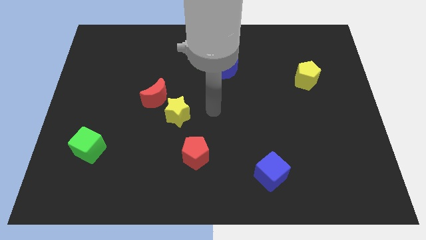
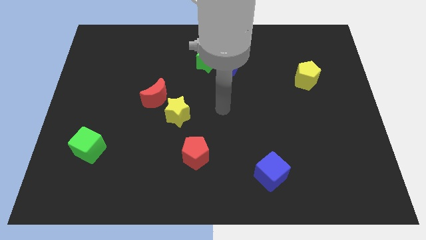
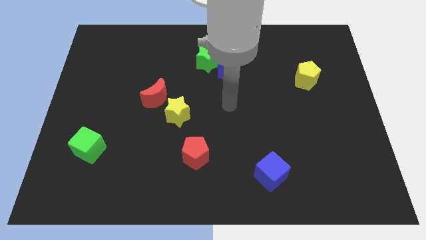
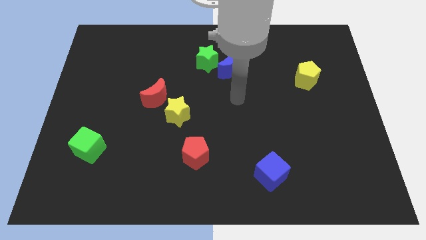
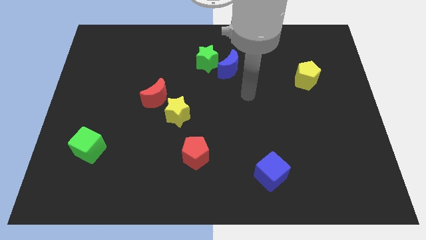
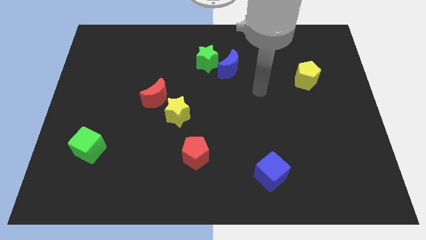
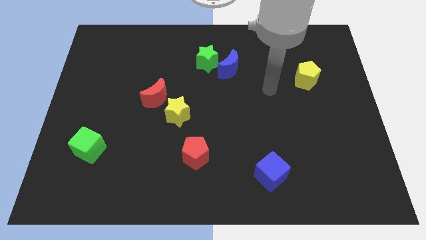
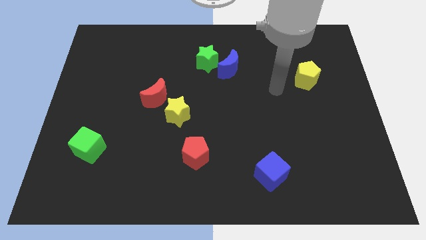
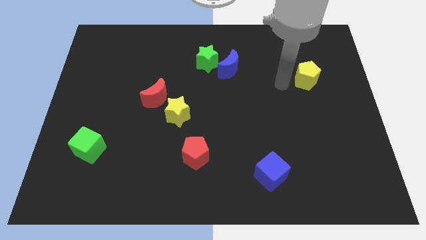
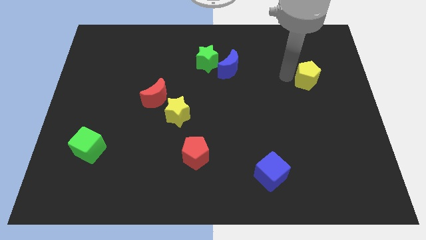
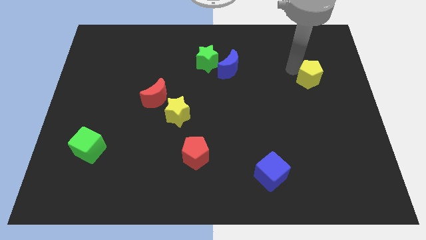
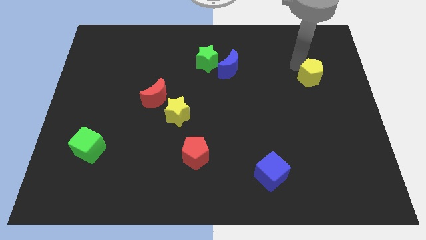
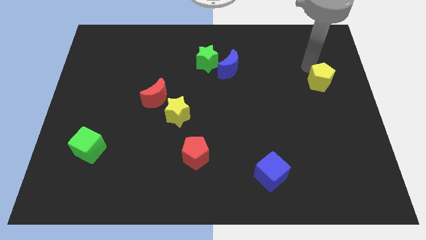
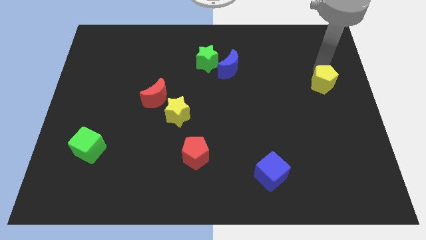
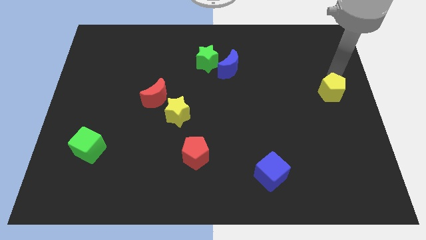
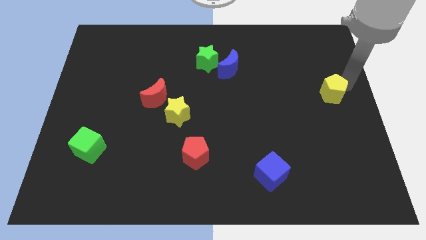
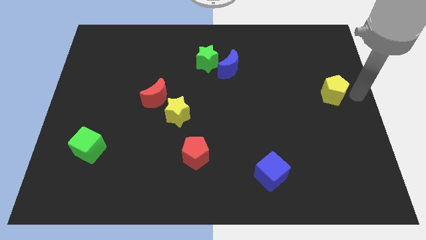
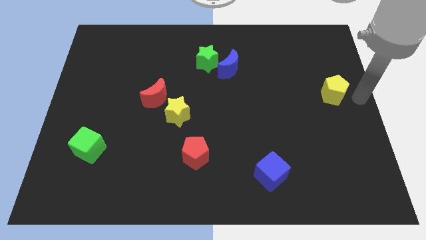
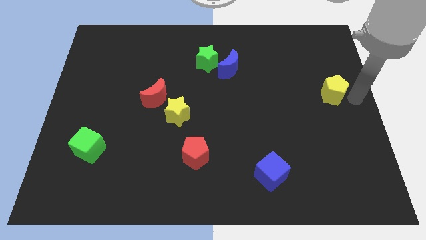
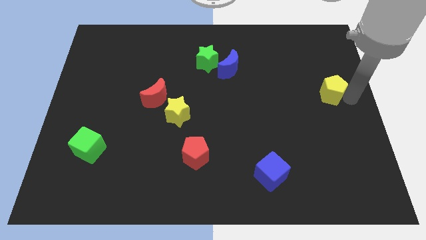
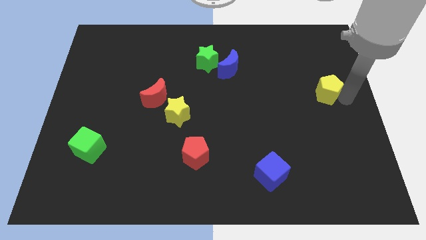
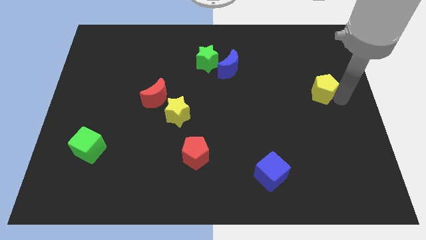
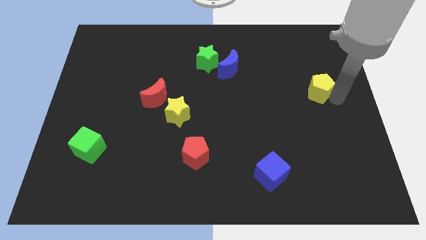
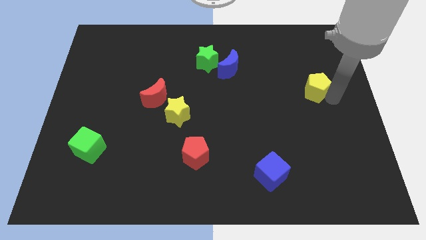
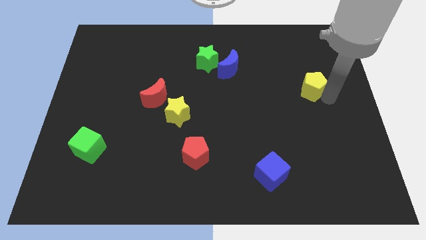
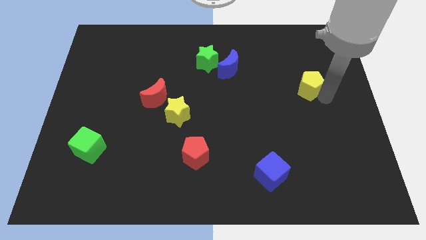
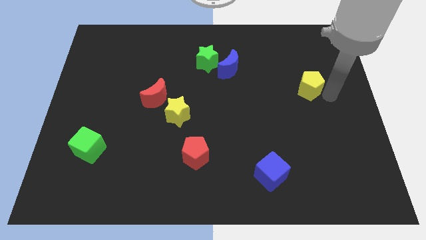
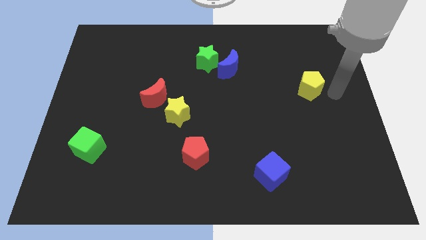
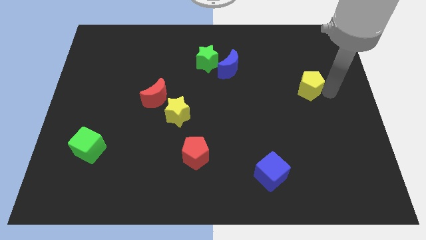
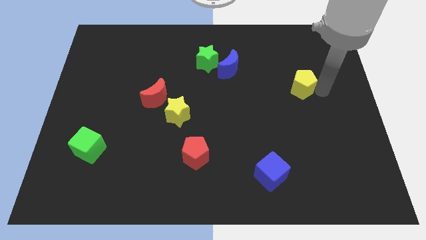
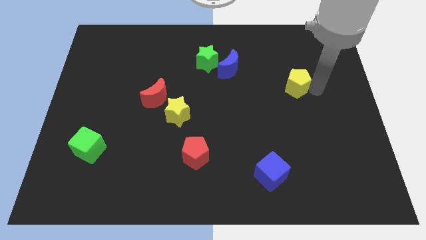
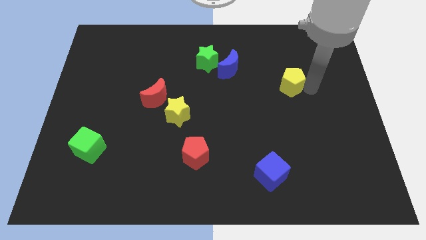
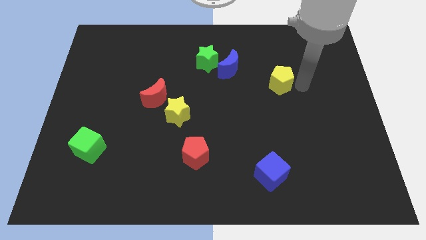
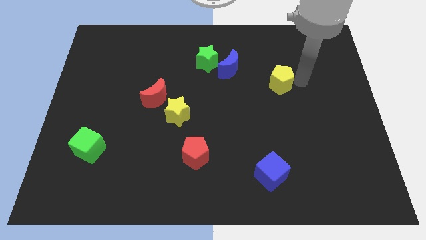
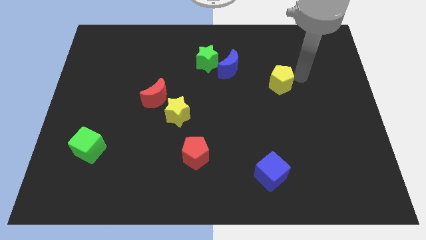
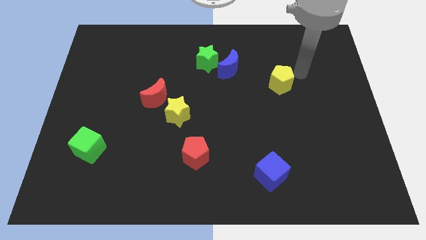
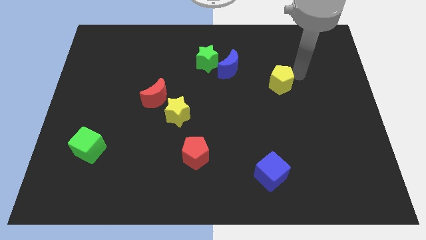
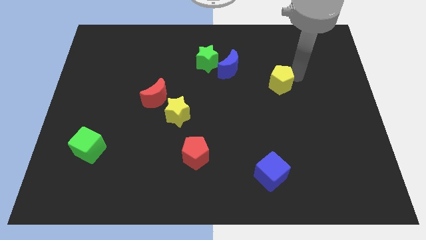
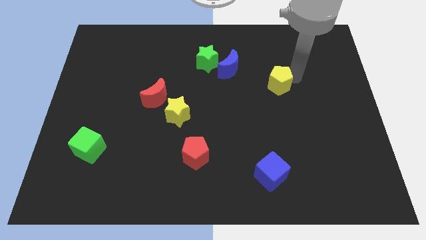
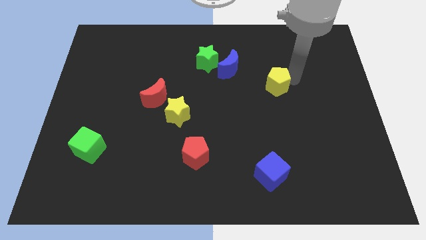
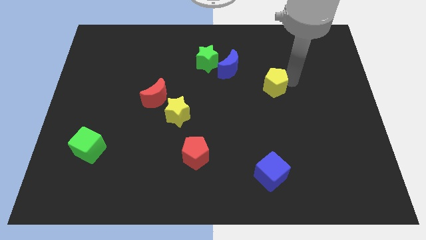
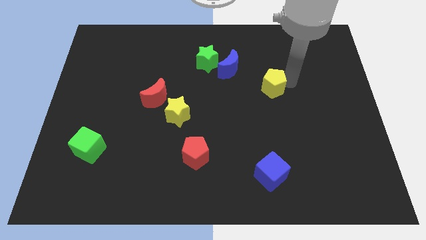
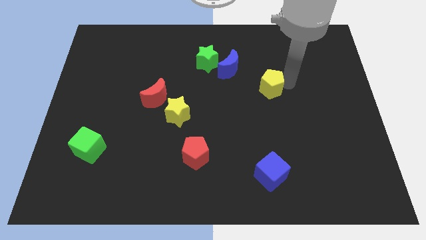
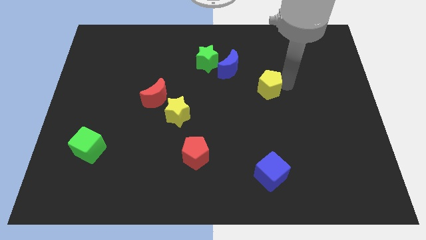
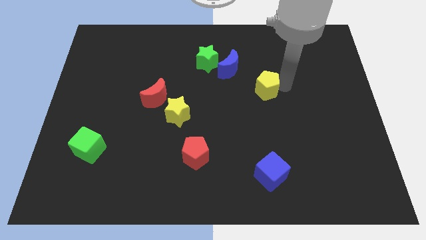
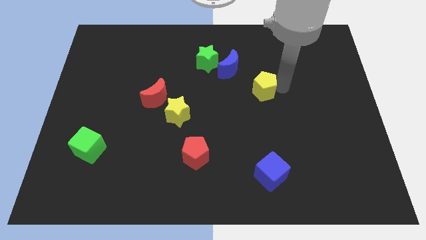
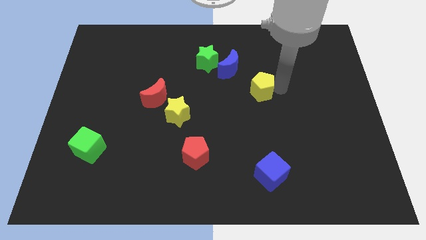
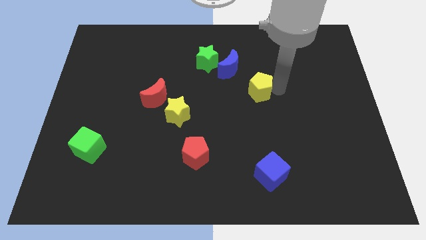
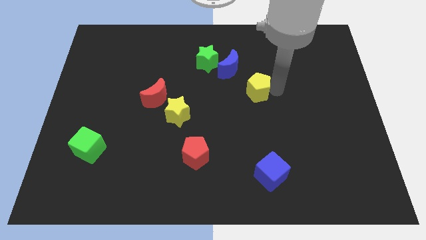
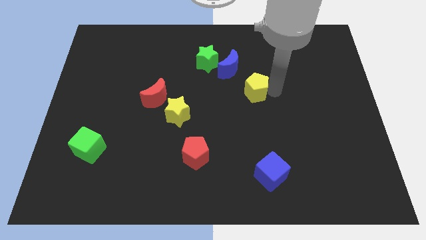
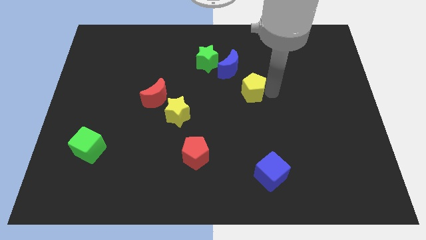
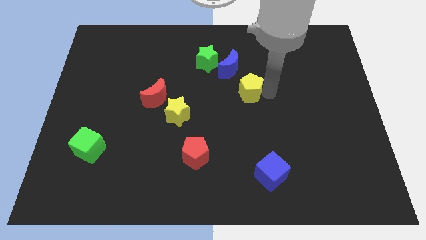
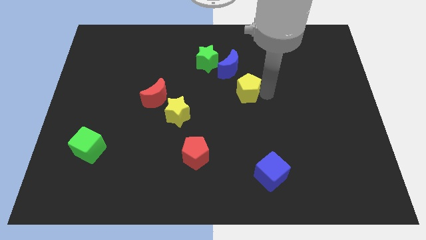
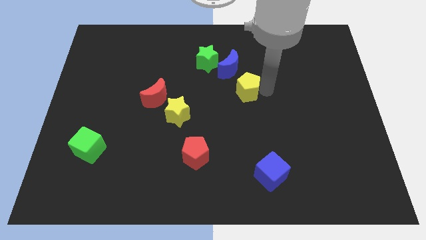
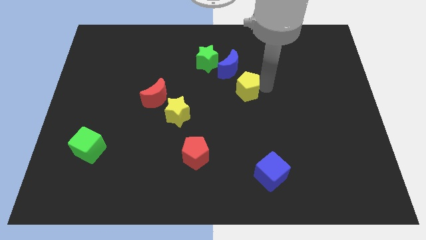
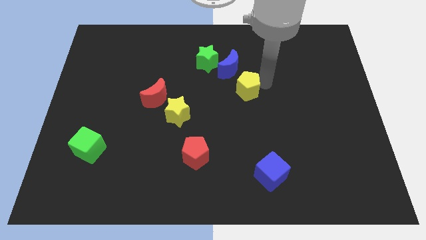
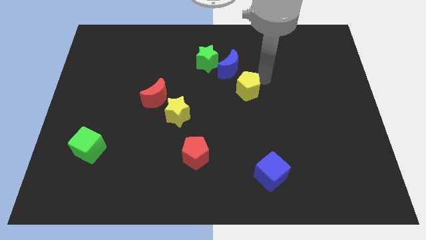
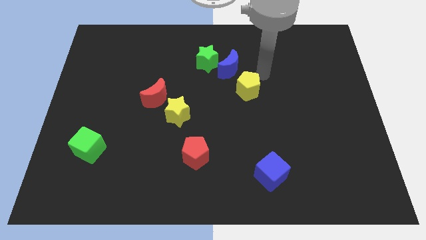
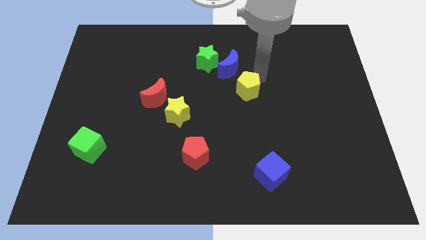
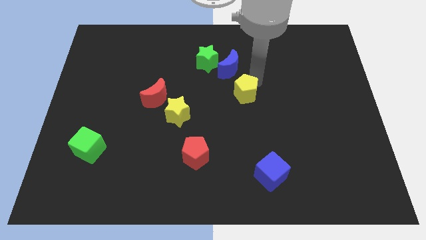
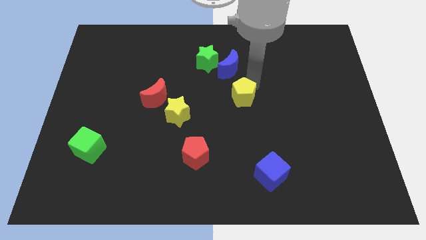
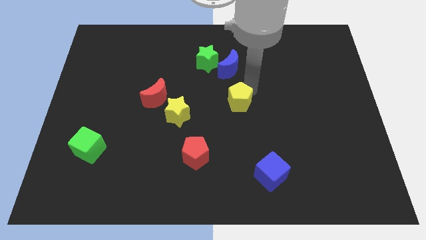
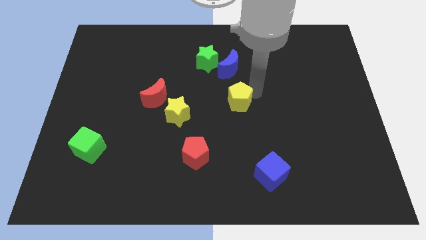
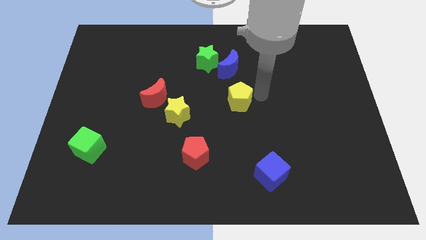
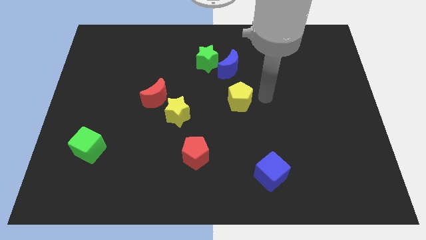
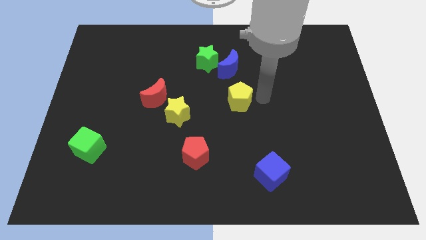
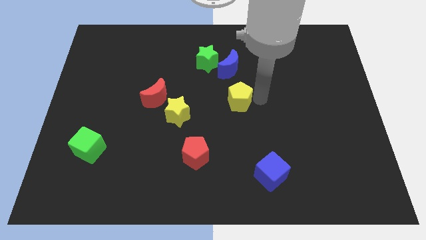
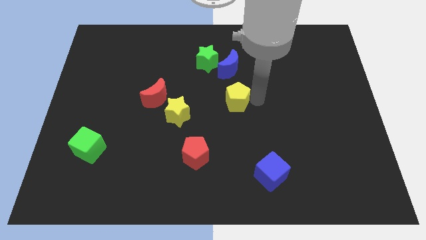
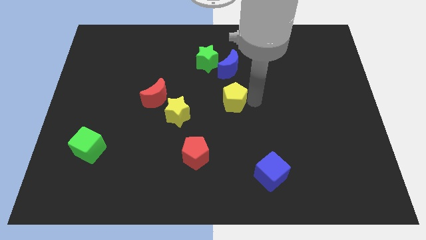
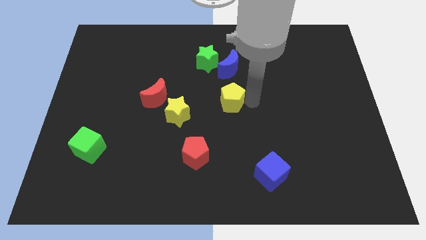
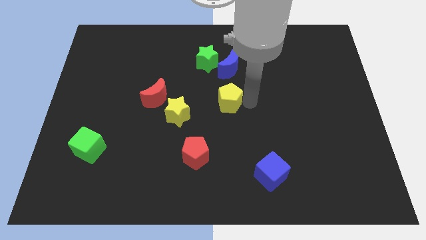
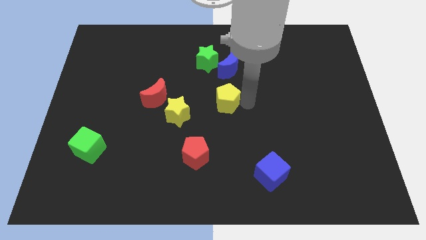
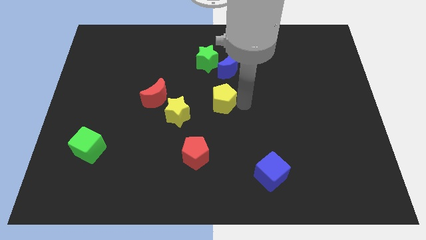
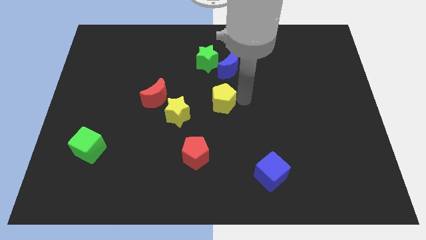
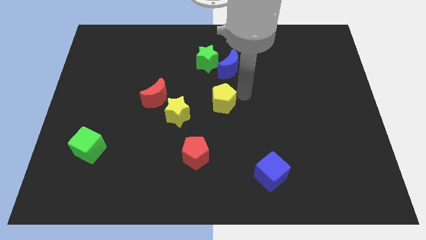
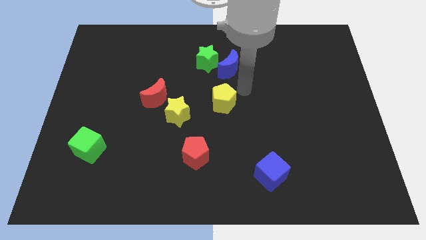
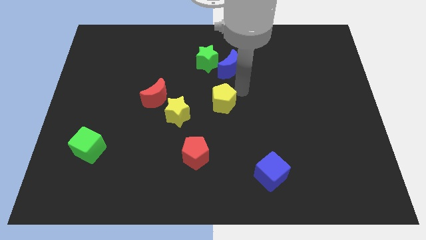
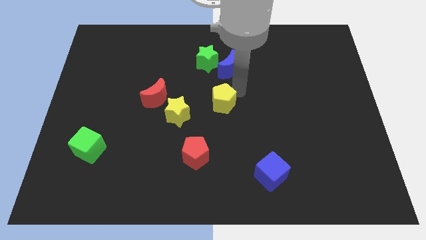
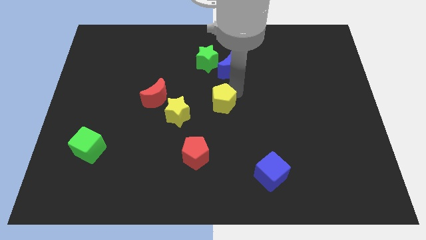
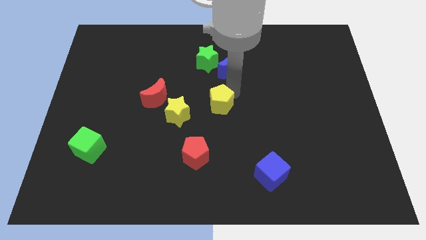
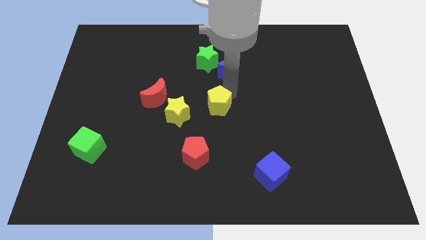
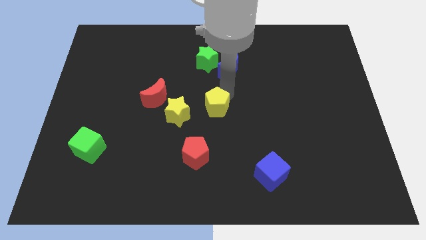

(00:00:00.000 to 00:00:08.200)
move the yellow pentagon to the top of the red pentagon

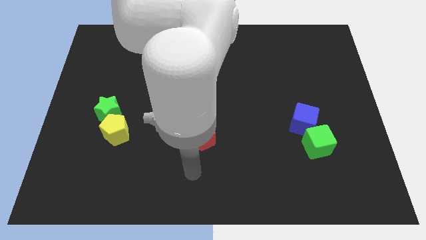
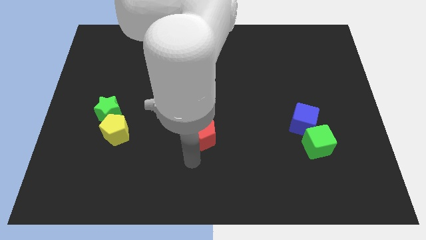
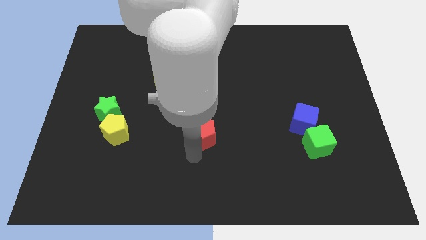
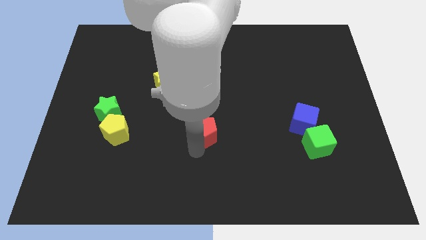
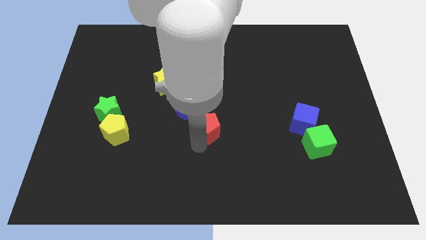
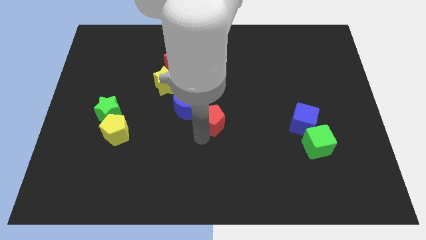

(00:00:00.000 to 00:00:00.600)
put the red pentagon just right of the blue moon
